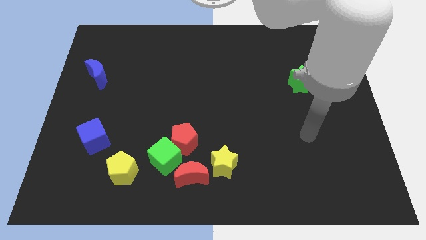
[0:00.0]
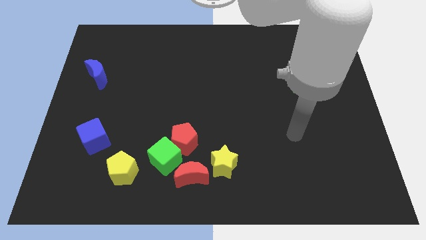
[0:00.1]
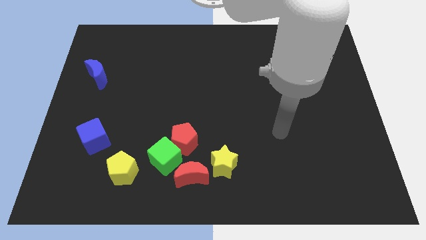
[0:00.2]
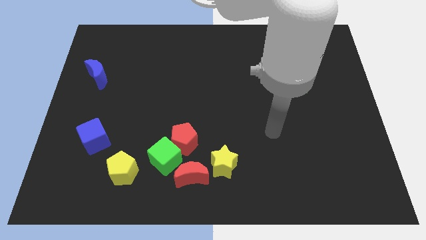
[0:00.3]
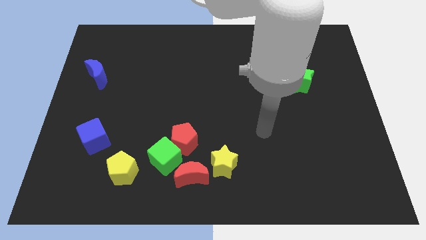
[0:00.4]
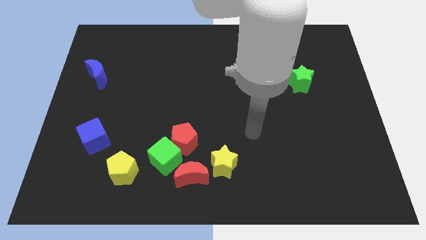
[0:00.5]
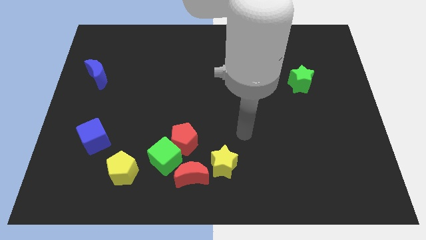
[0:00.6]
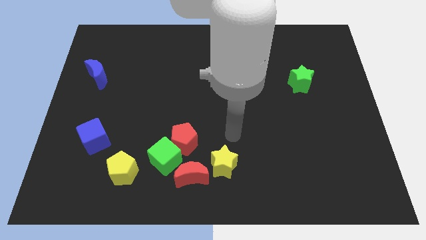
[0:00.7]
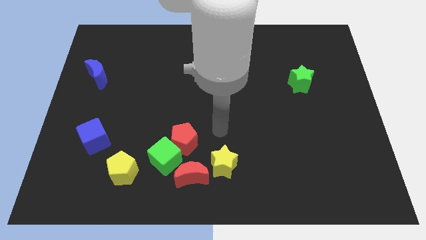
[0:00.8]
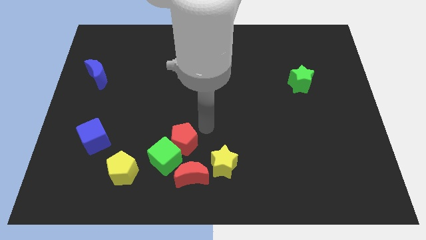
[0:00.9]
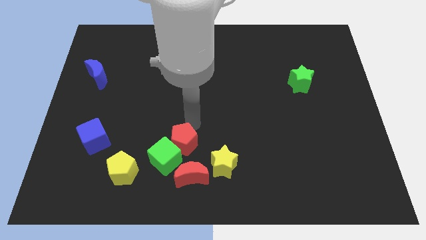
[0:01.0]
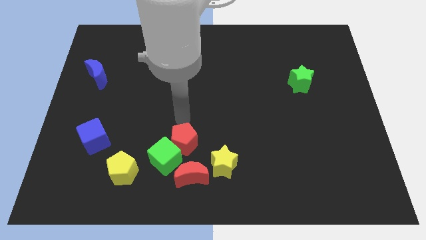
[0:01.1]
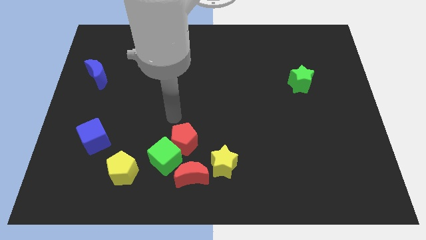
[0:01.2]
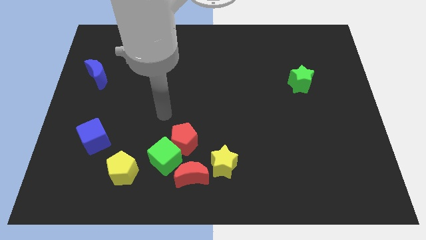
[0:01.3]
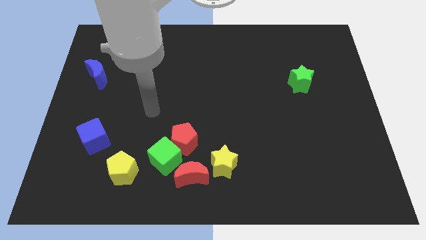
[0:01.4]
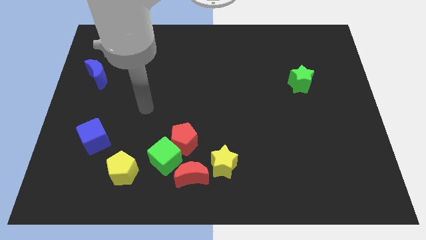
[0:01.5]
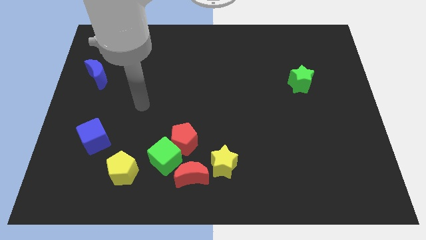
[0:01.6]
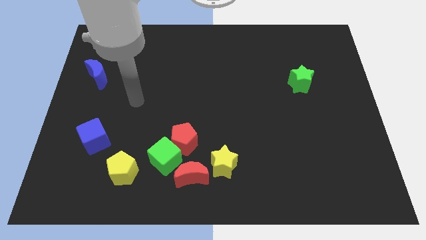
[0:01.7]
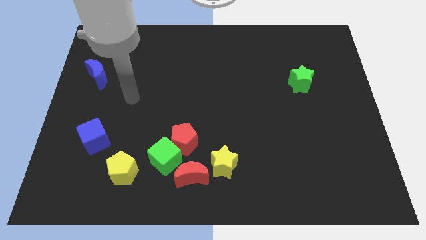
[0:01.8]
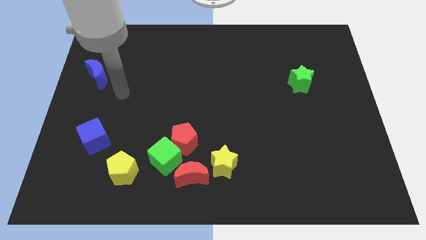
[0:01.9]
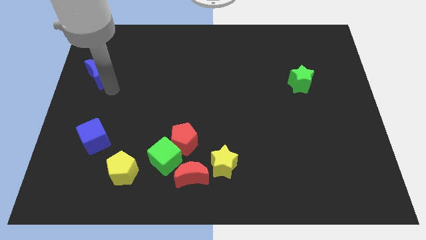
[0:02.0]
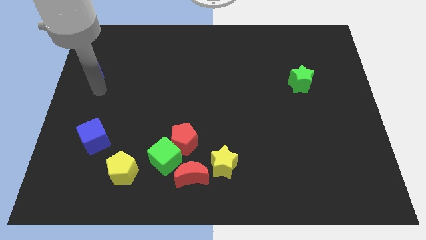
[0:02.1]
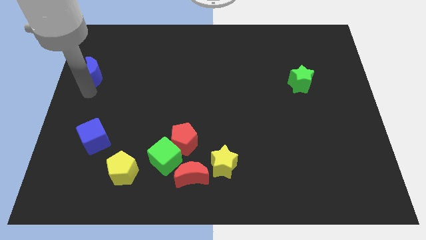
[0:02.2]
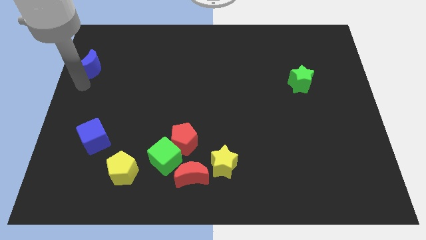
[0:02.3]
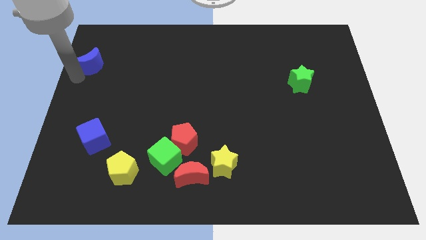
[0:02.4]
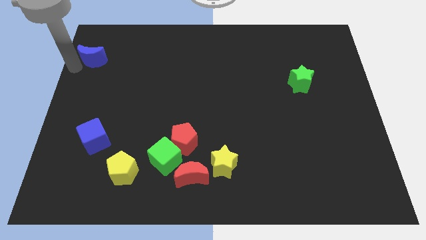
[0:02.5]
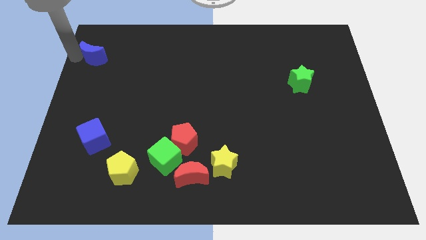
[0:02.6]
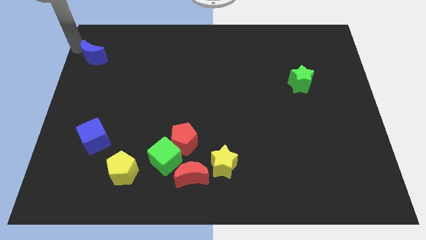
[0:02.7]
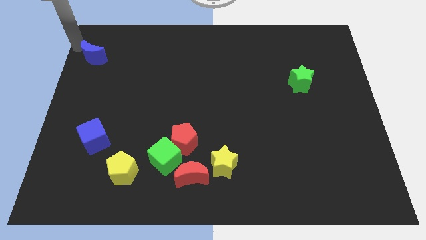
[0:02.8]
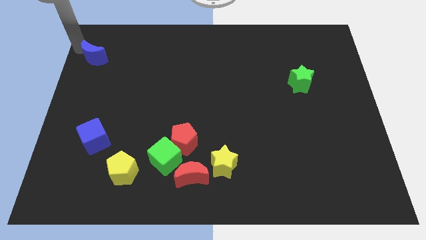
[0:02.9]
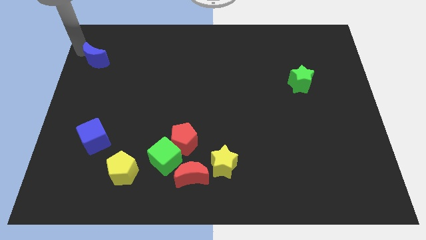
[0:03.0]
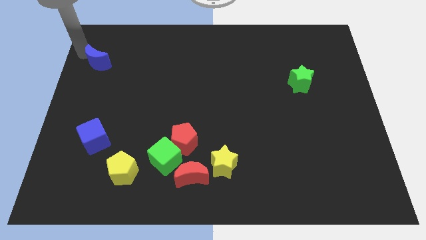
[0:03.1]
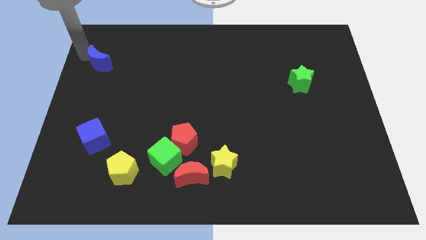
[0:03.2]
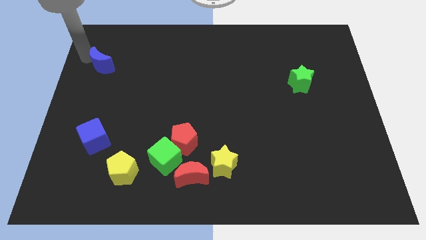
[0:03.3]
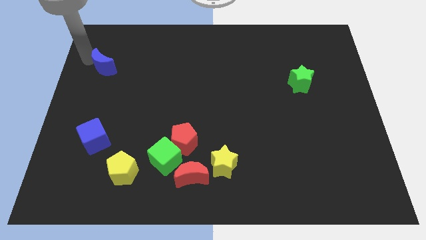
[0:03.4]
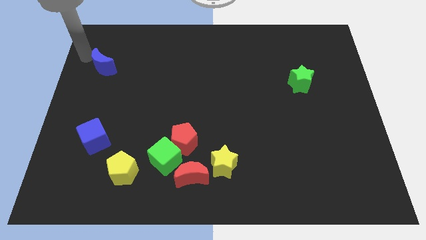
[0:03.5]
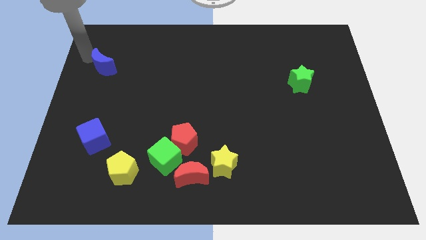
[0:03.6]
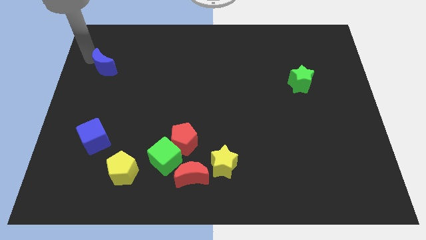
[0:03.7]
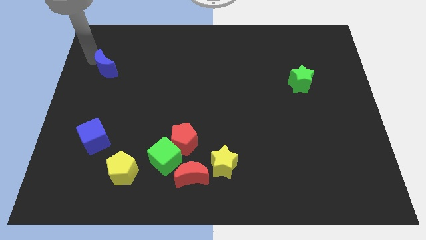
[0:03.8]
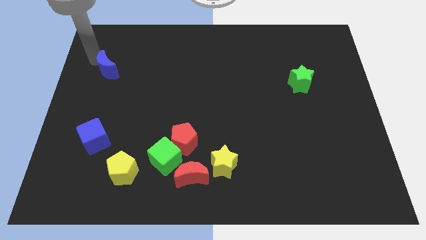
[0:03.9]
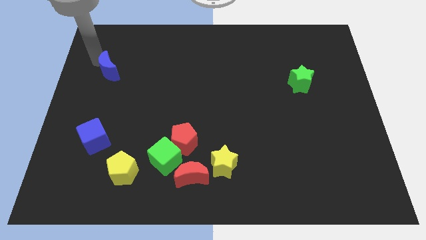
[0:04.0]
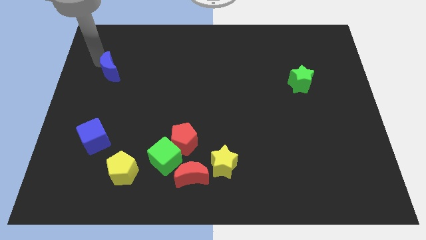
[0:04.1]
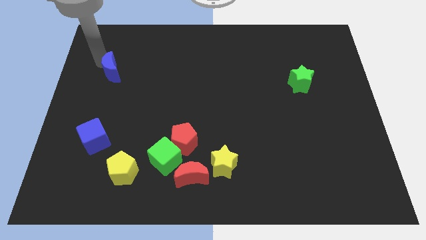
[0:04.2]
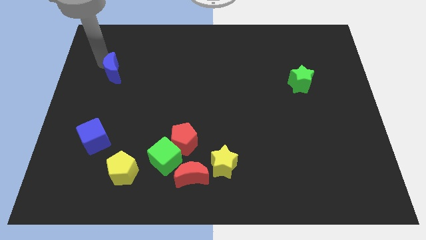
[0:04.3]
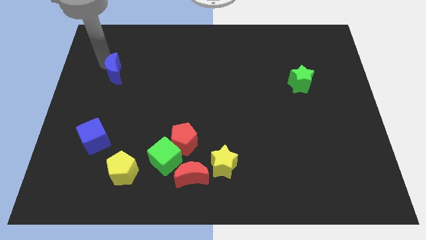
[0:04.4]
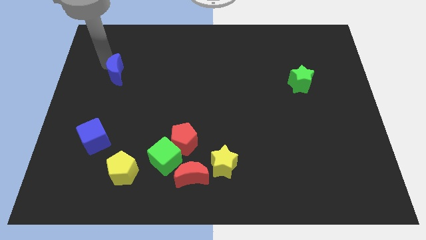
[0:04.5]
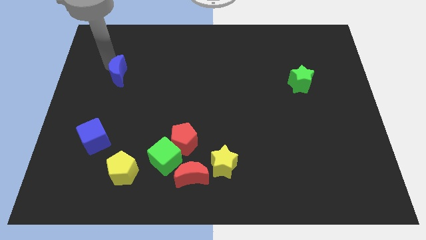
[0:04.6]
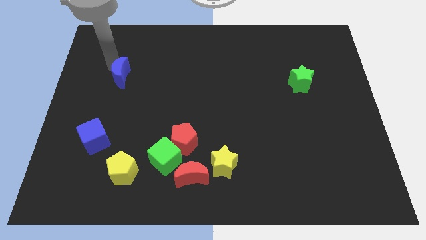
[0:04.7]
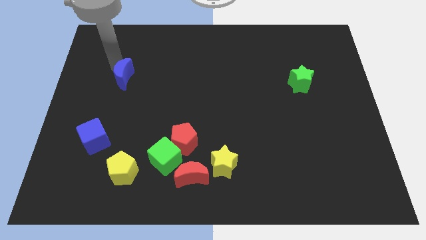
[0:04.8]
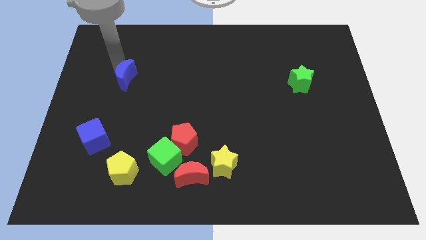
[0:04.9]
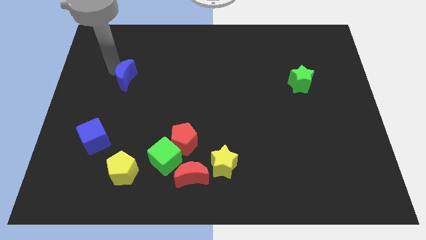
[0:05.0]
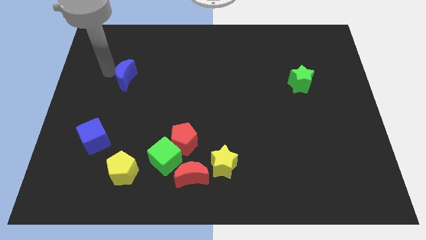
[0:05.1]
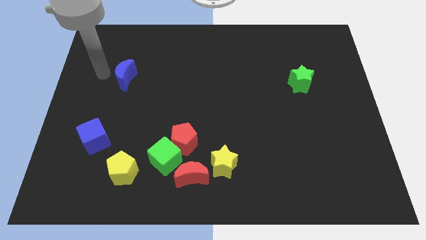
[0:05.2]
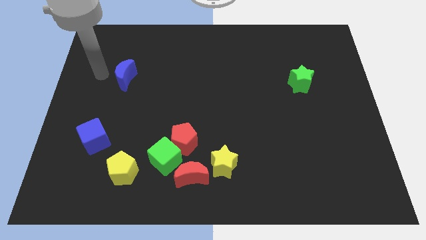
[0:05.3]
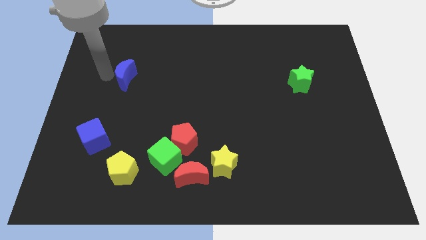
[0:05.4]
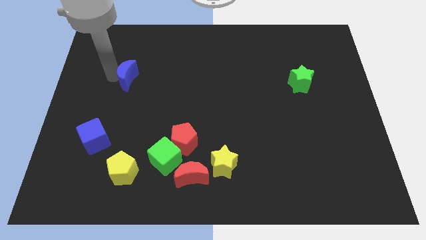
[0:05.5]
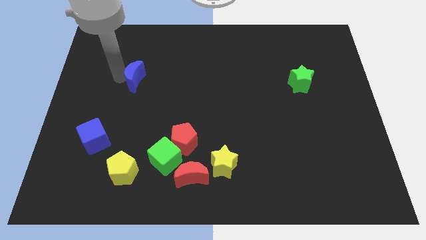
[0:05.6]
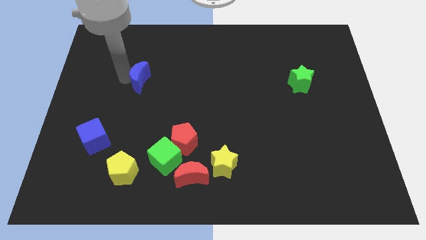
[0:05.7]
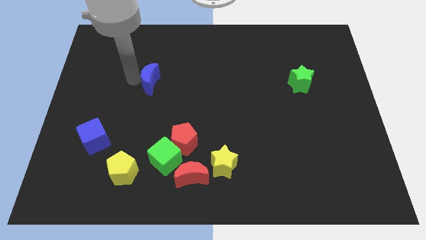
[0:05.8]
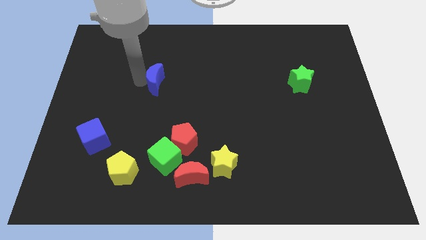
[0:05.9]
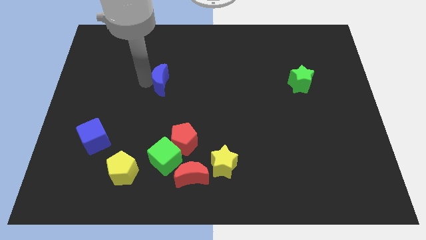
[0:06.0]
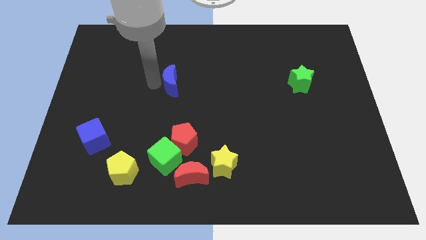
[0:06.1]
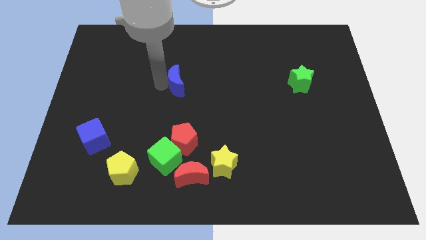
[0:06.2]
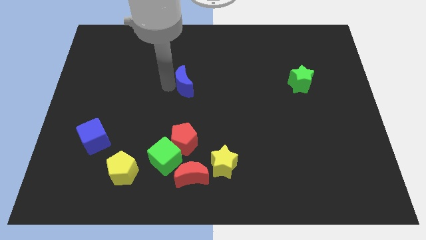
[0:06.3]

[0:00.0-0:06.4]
move the blue moon to the right

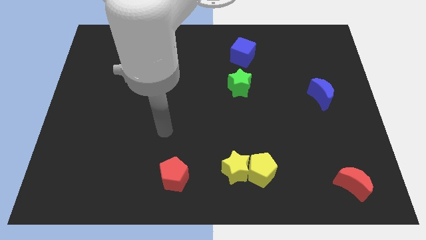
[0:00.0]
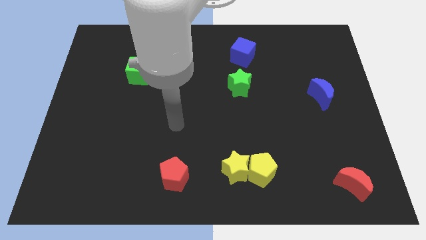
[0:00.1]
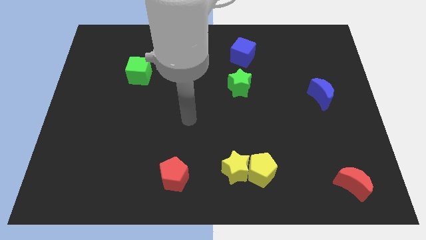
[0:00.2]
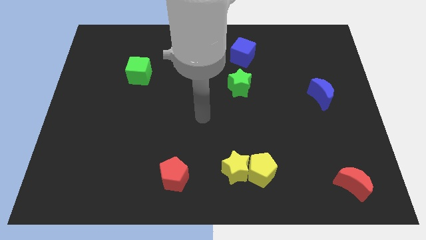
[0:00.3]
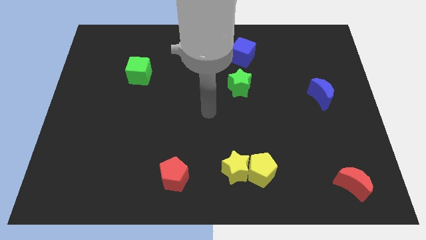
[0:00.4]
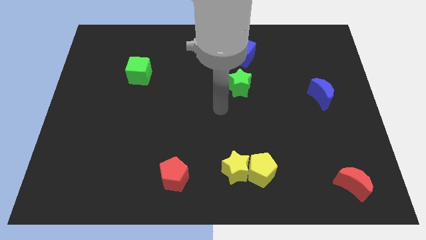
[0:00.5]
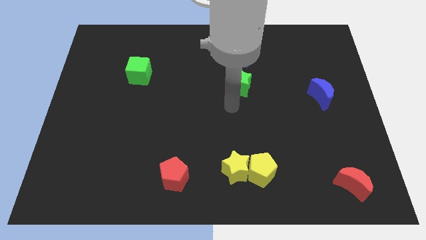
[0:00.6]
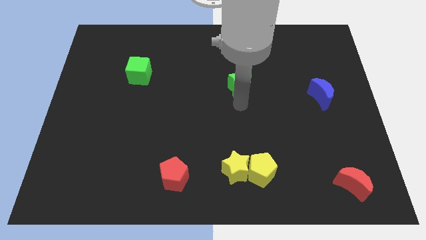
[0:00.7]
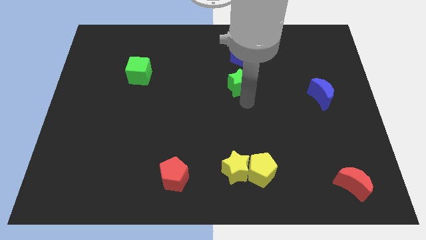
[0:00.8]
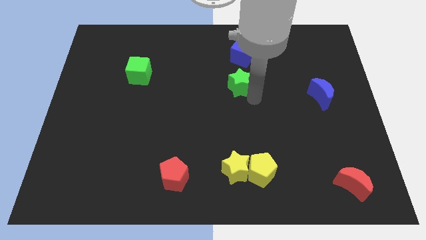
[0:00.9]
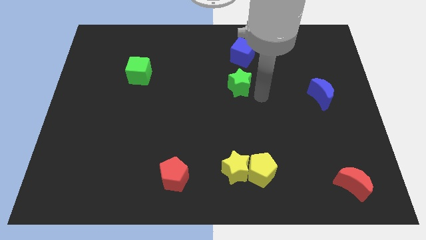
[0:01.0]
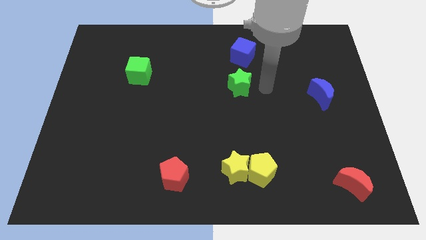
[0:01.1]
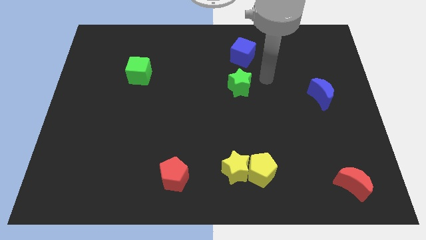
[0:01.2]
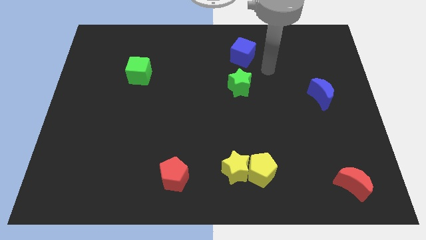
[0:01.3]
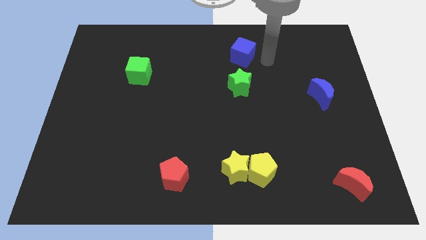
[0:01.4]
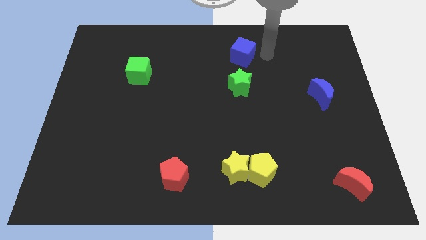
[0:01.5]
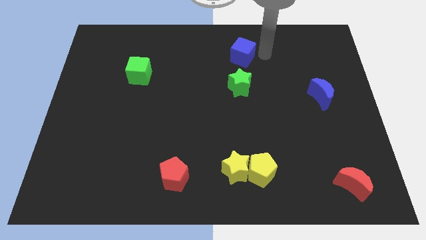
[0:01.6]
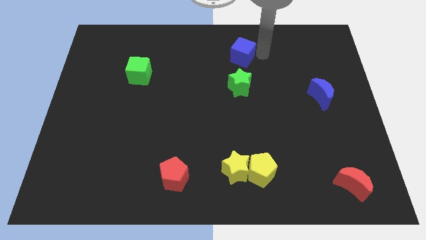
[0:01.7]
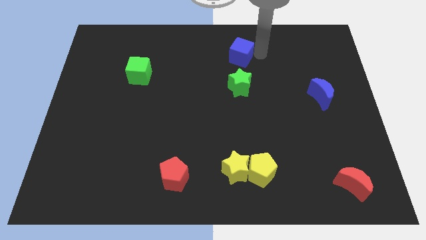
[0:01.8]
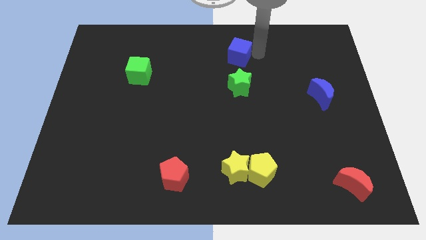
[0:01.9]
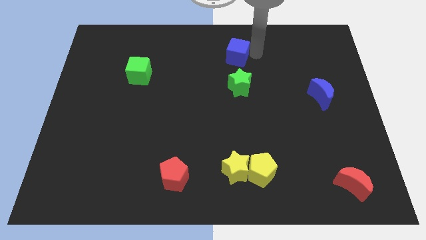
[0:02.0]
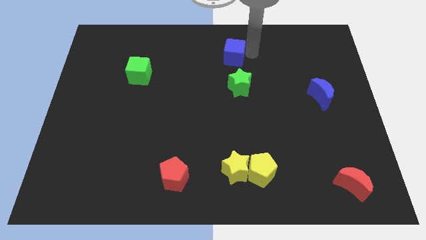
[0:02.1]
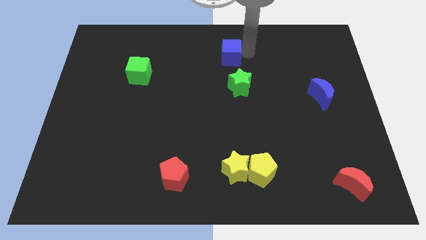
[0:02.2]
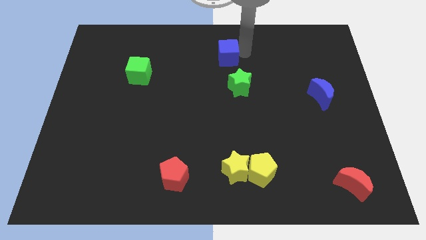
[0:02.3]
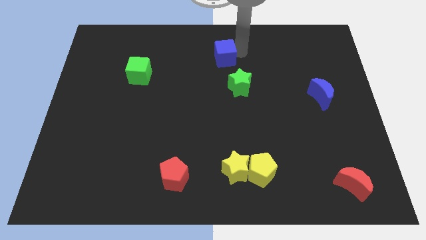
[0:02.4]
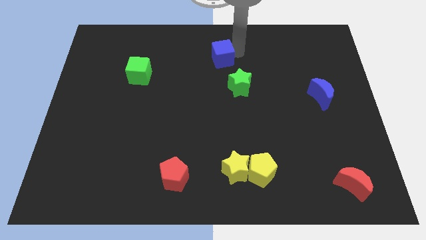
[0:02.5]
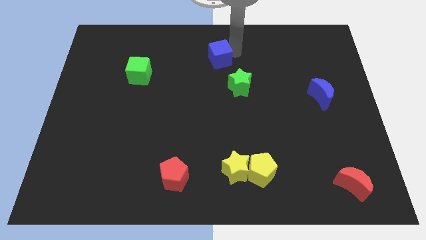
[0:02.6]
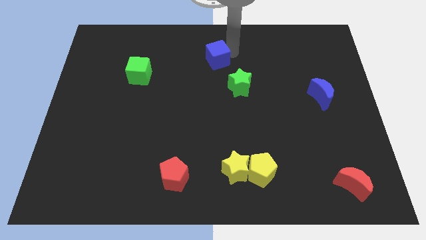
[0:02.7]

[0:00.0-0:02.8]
slightly slide the blue cube left
